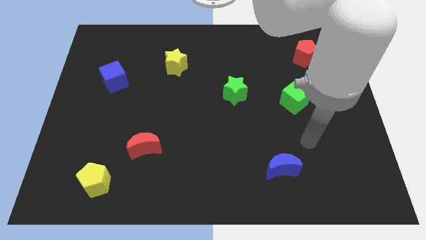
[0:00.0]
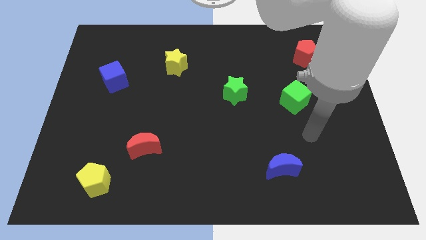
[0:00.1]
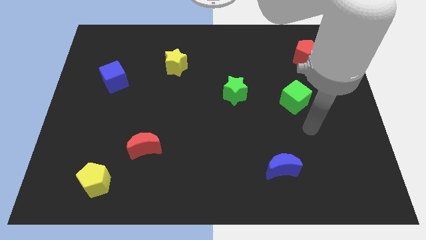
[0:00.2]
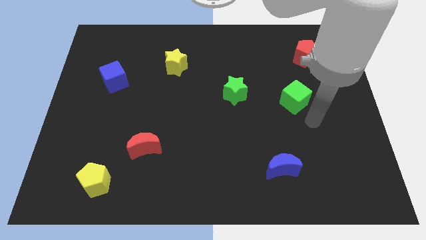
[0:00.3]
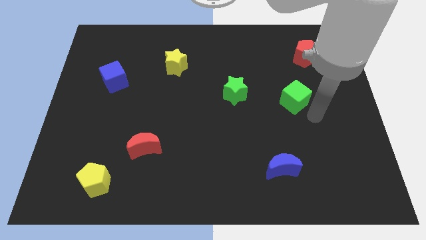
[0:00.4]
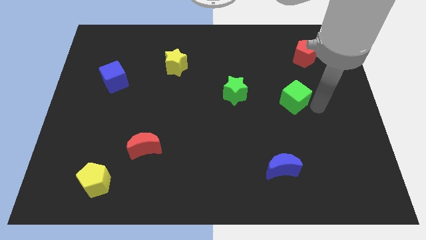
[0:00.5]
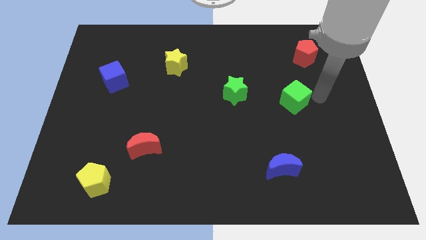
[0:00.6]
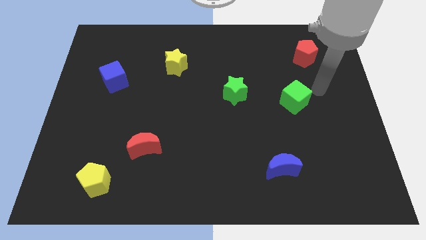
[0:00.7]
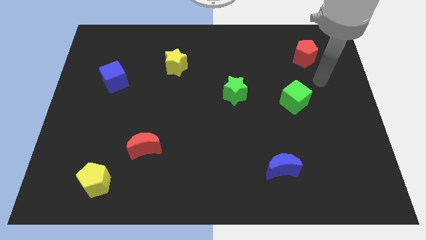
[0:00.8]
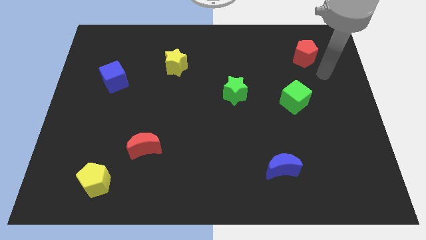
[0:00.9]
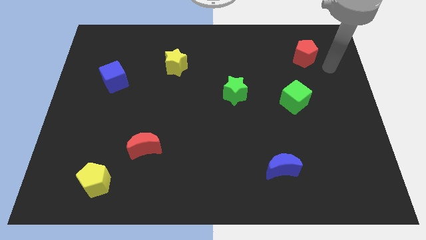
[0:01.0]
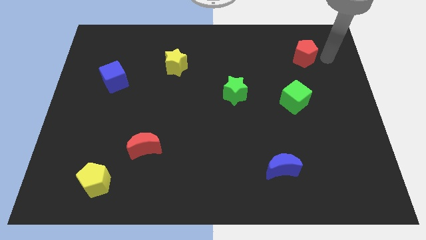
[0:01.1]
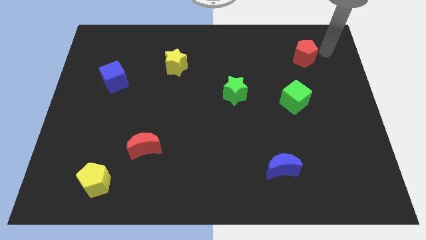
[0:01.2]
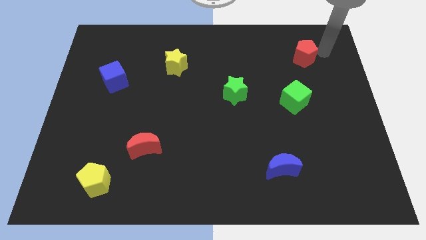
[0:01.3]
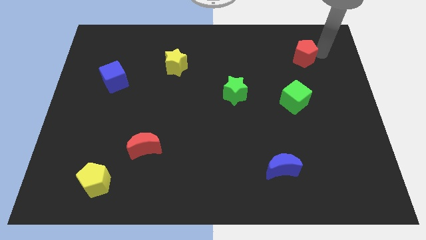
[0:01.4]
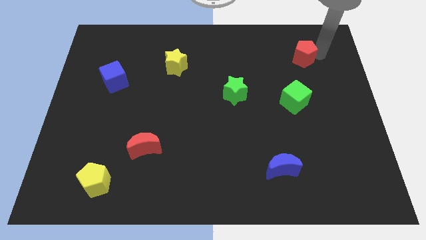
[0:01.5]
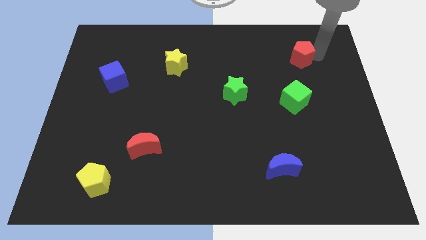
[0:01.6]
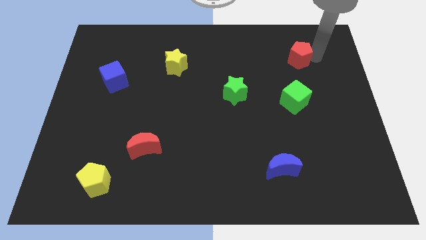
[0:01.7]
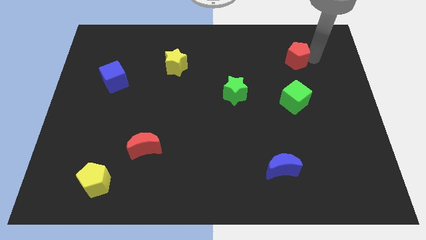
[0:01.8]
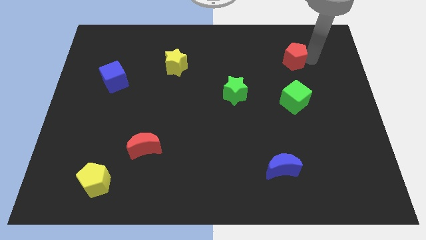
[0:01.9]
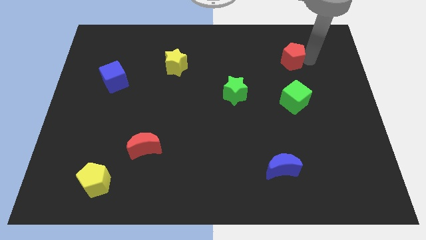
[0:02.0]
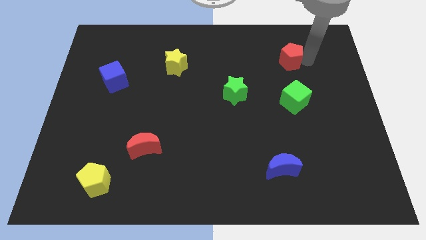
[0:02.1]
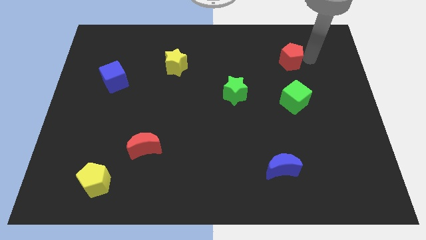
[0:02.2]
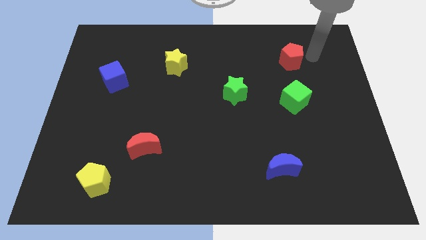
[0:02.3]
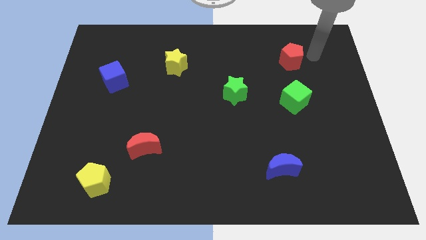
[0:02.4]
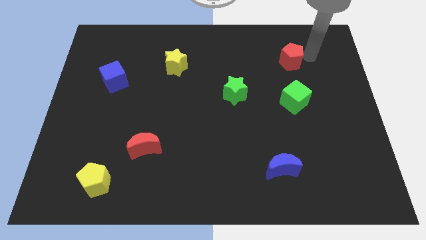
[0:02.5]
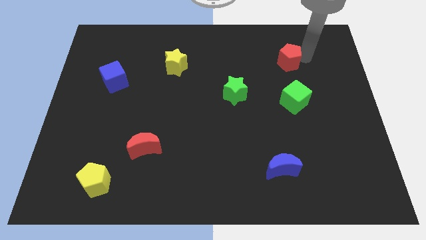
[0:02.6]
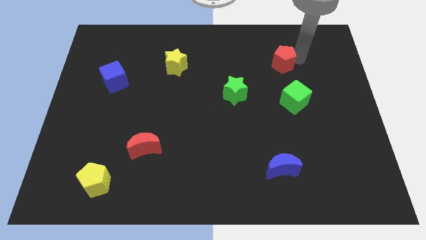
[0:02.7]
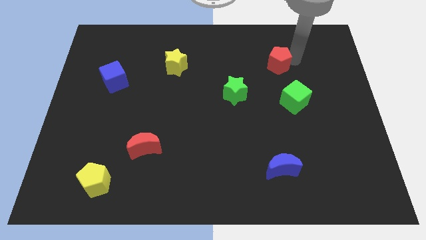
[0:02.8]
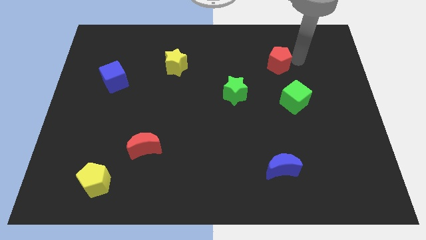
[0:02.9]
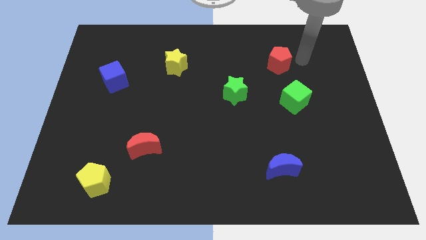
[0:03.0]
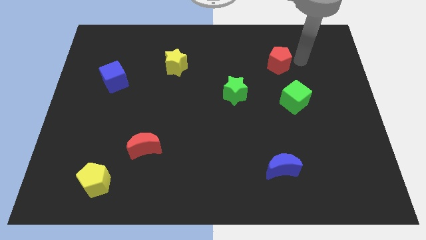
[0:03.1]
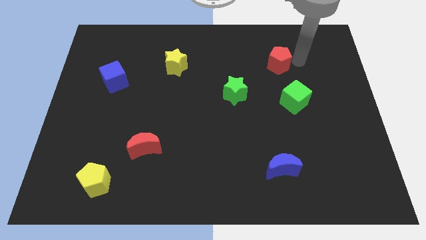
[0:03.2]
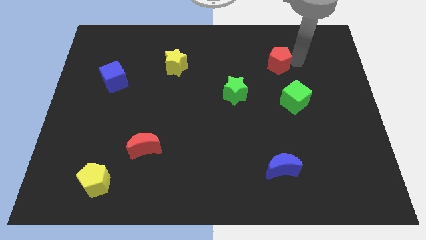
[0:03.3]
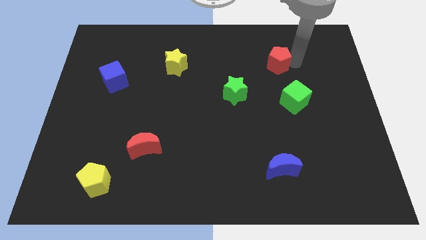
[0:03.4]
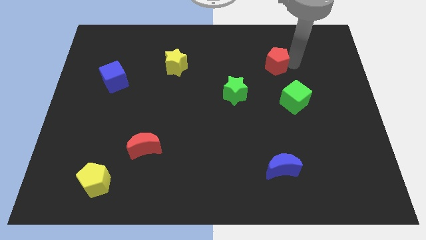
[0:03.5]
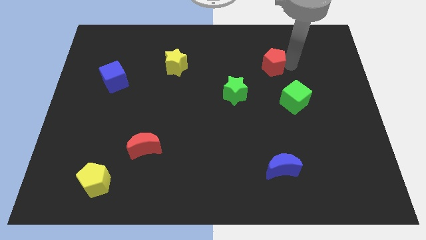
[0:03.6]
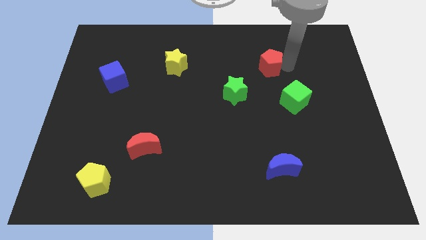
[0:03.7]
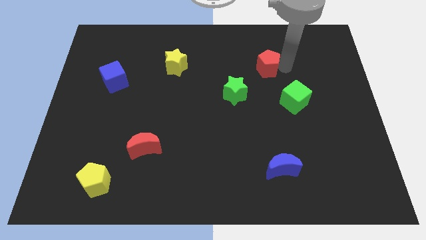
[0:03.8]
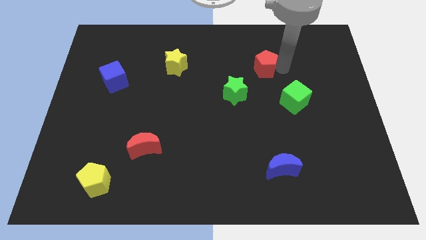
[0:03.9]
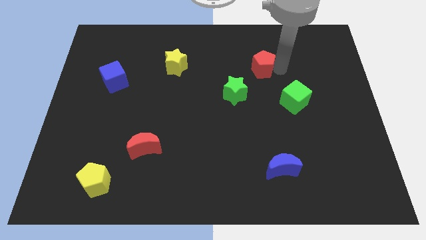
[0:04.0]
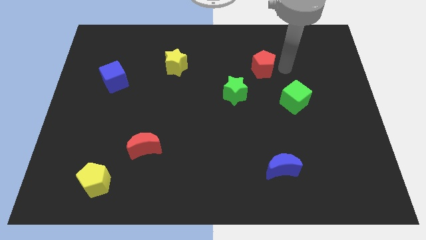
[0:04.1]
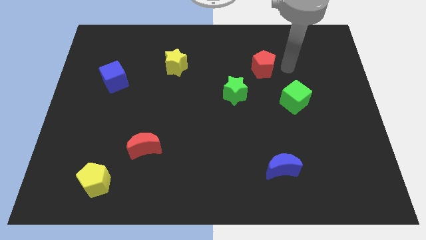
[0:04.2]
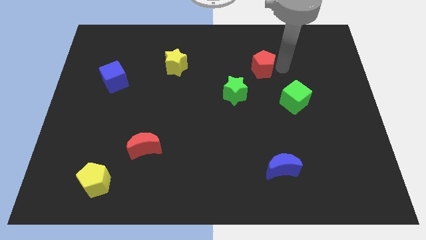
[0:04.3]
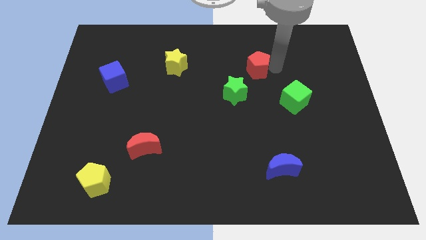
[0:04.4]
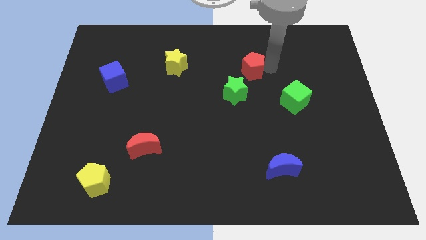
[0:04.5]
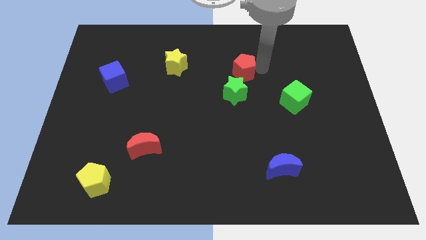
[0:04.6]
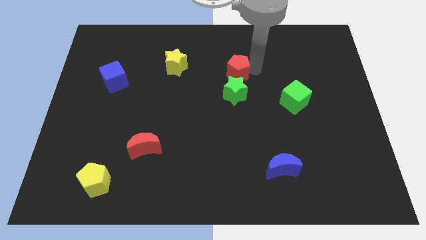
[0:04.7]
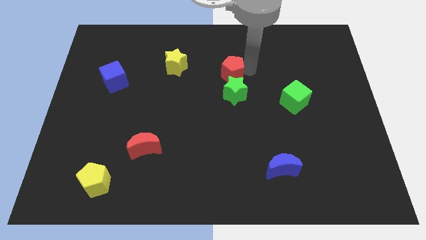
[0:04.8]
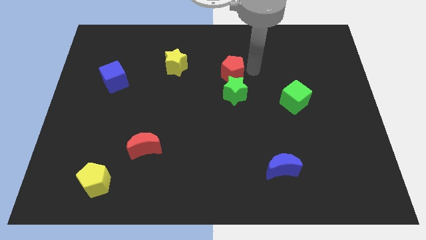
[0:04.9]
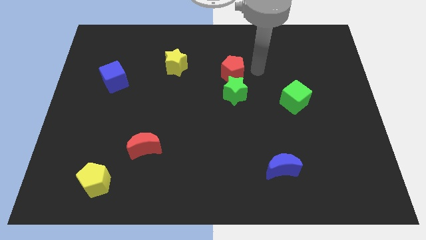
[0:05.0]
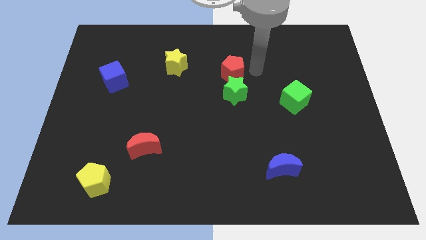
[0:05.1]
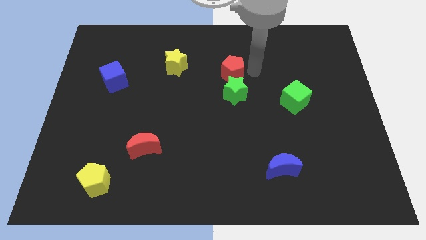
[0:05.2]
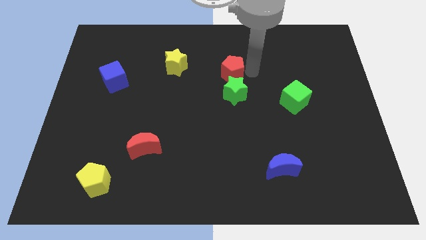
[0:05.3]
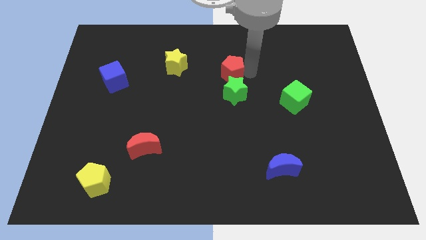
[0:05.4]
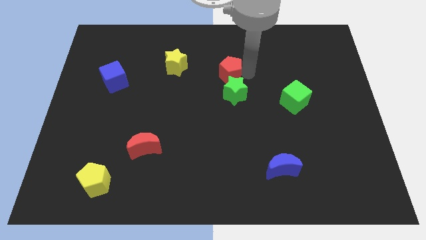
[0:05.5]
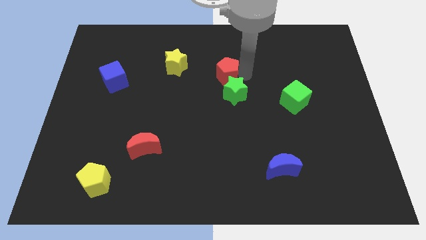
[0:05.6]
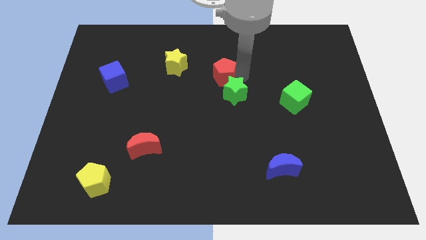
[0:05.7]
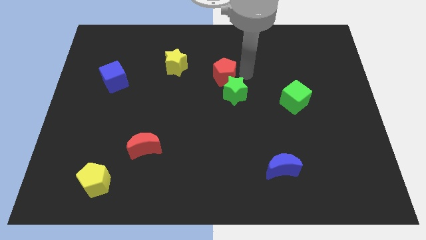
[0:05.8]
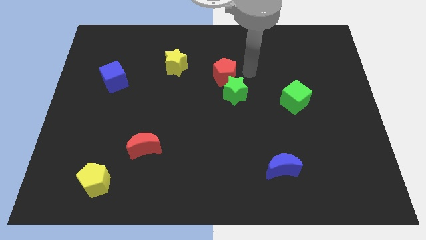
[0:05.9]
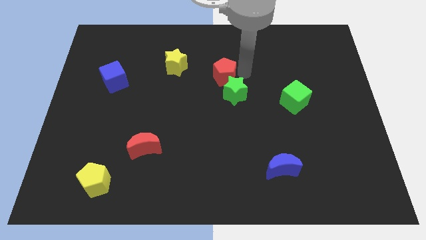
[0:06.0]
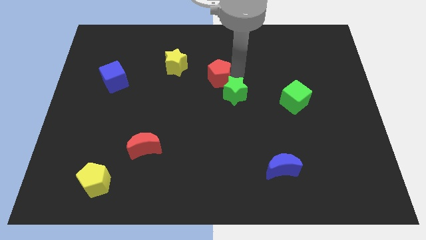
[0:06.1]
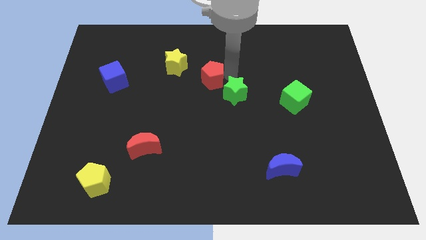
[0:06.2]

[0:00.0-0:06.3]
move the red pentagon to the bottom right of the yellow star
